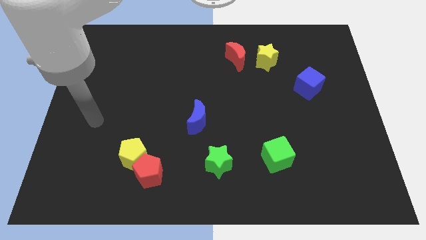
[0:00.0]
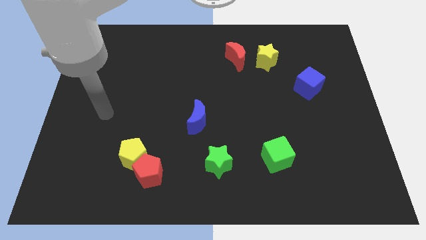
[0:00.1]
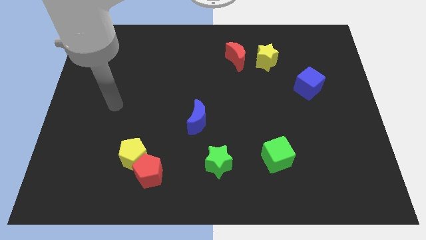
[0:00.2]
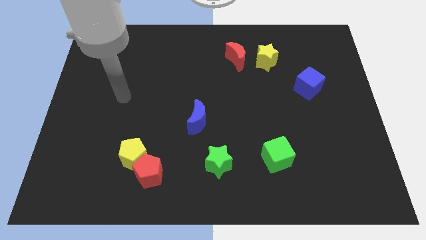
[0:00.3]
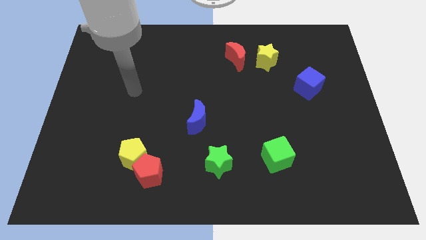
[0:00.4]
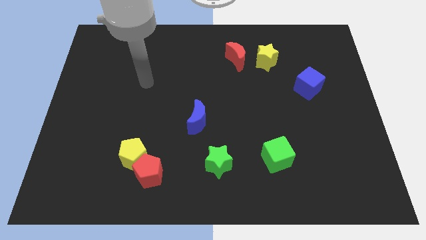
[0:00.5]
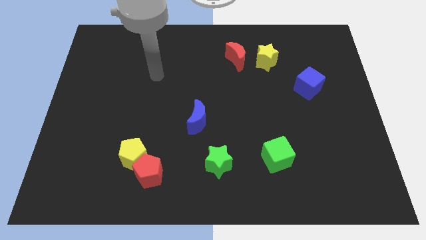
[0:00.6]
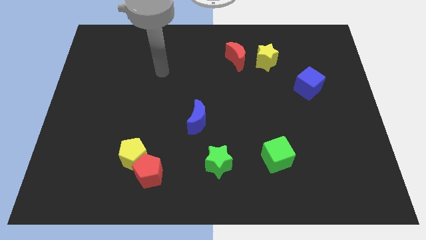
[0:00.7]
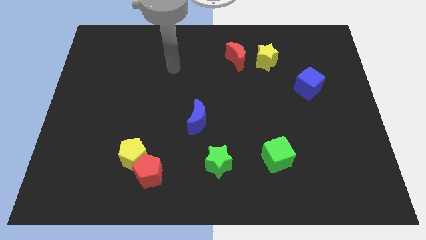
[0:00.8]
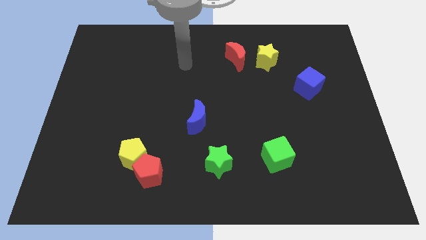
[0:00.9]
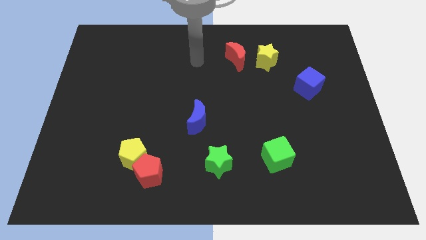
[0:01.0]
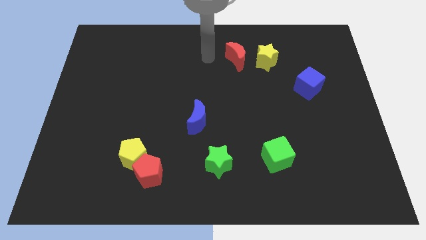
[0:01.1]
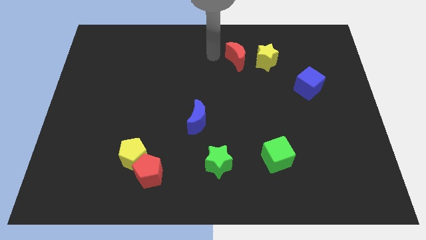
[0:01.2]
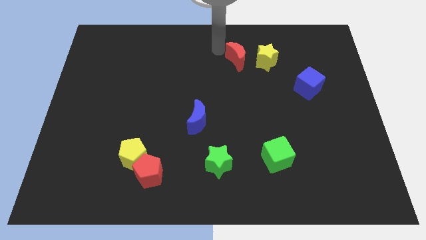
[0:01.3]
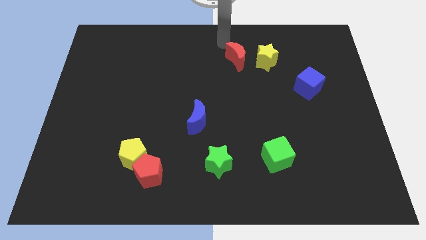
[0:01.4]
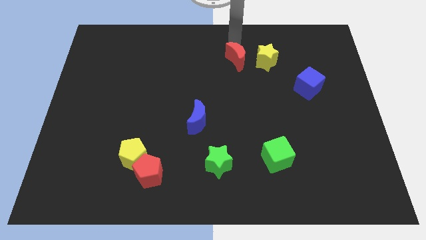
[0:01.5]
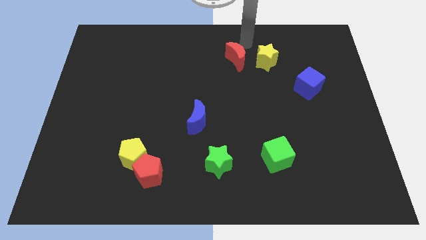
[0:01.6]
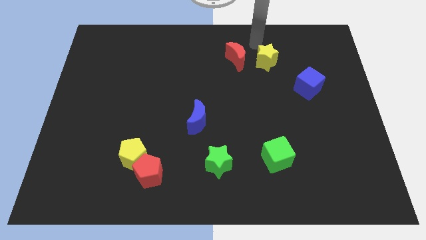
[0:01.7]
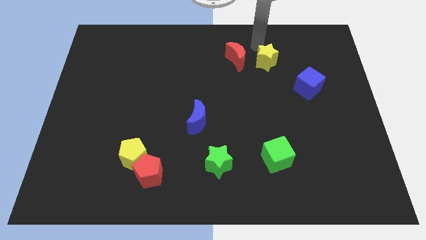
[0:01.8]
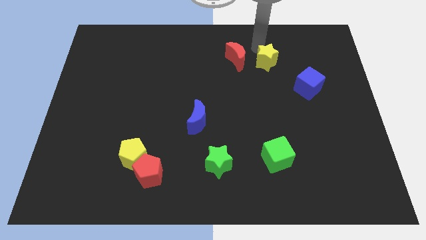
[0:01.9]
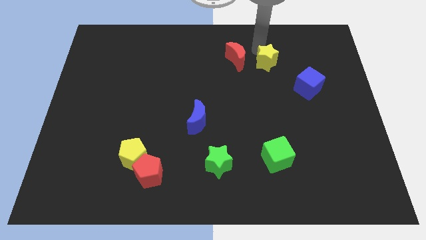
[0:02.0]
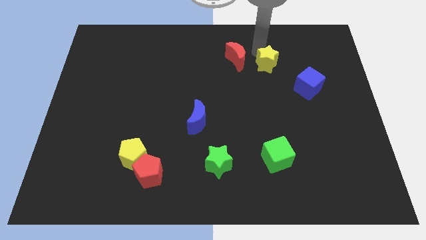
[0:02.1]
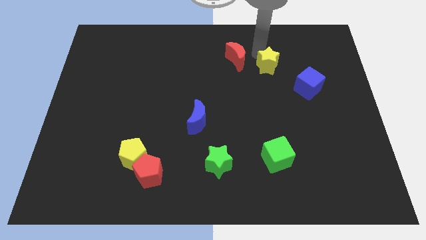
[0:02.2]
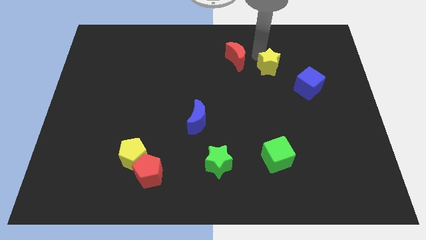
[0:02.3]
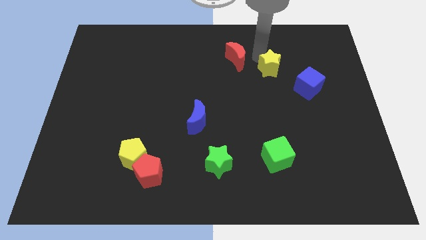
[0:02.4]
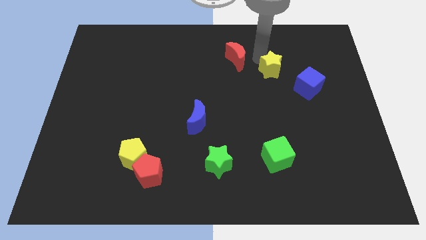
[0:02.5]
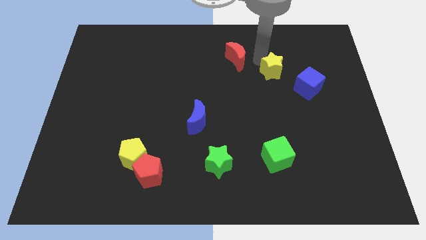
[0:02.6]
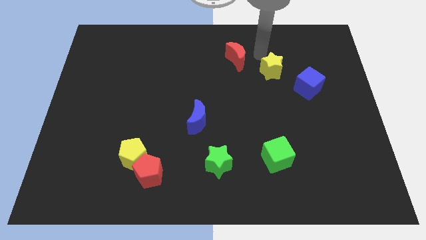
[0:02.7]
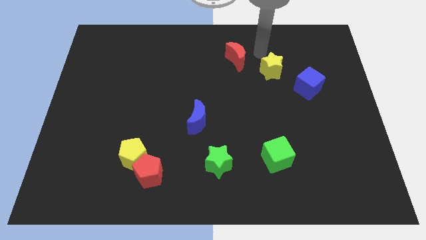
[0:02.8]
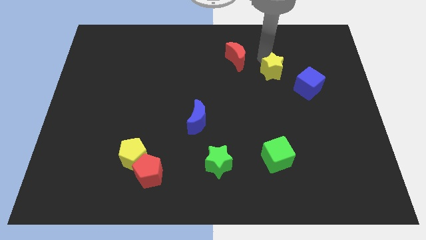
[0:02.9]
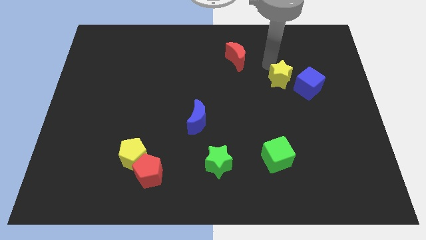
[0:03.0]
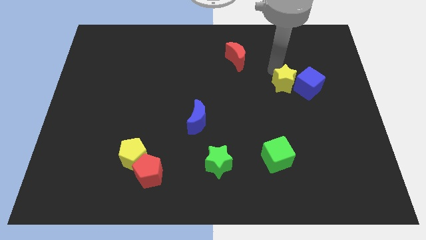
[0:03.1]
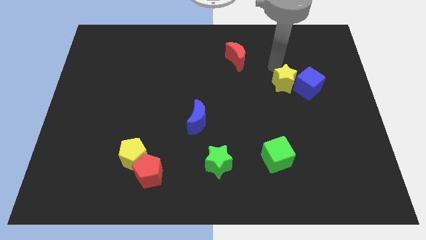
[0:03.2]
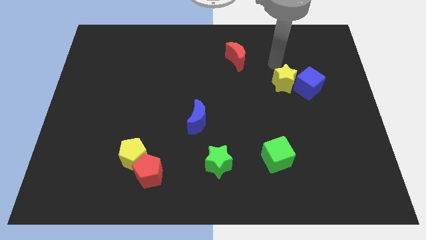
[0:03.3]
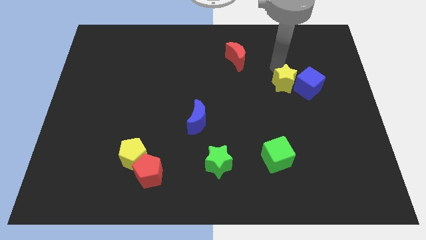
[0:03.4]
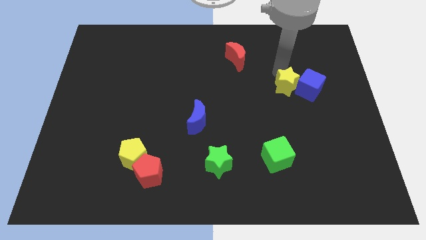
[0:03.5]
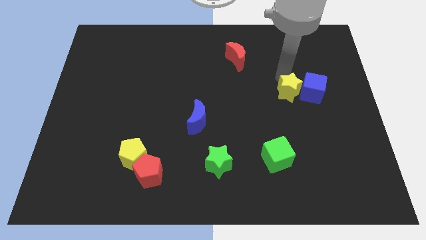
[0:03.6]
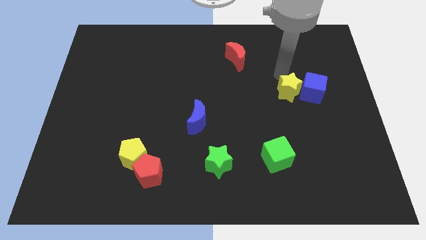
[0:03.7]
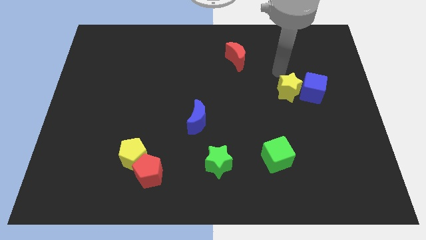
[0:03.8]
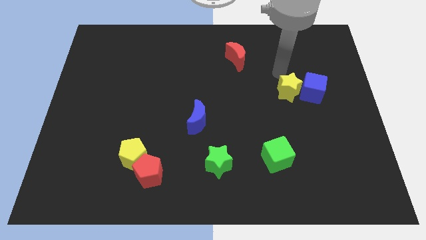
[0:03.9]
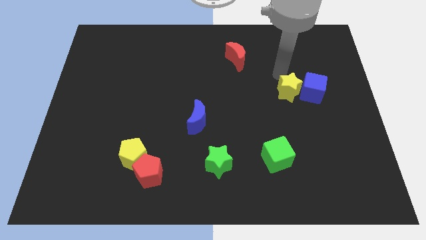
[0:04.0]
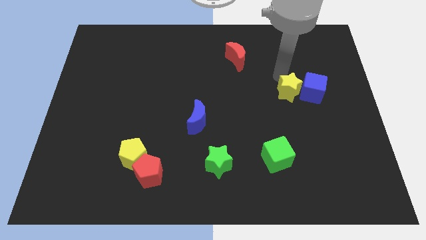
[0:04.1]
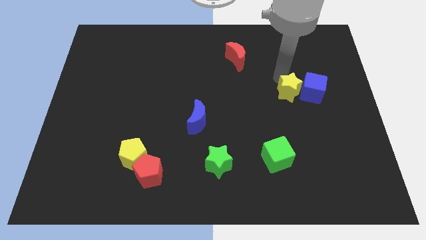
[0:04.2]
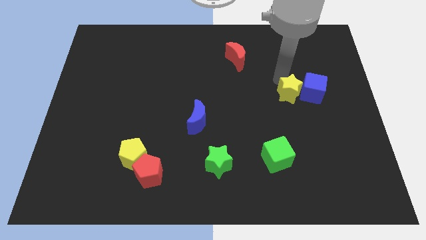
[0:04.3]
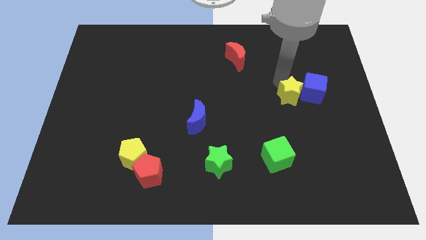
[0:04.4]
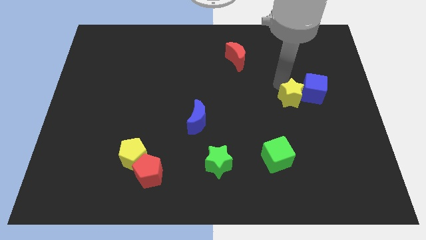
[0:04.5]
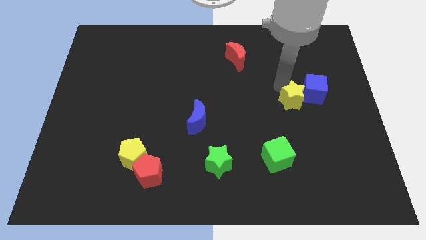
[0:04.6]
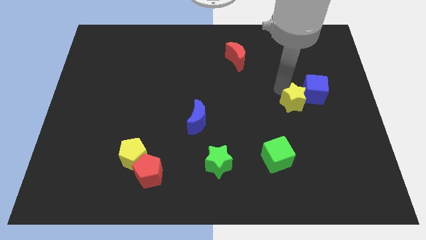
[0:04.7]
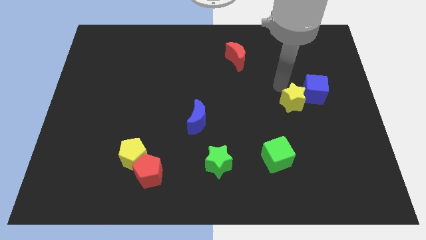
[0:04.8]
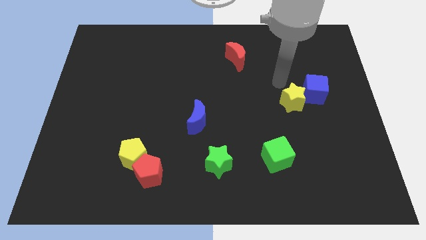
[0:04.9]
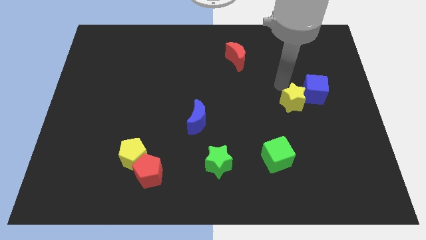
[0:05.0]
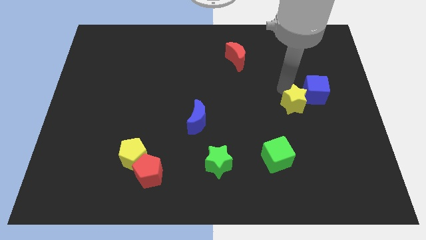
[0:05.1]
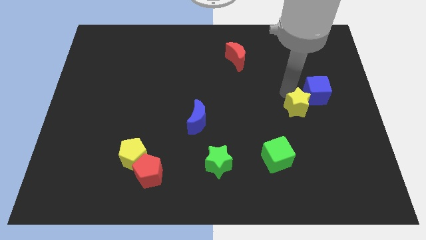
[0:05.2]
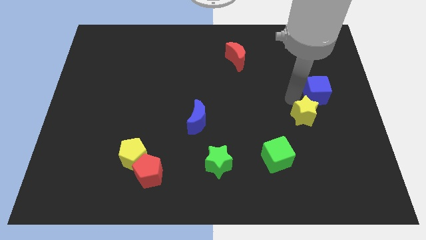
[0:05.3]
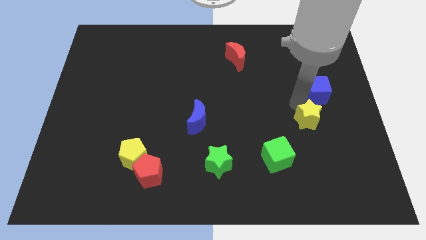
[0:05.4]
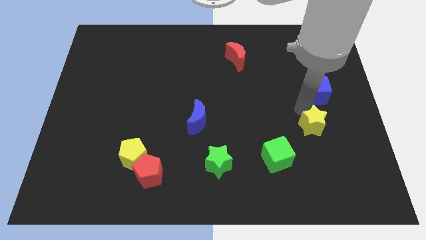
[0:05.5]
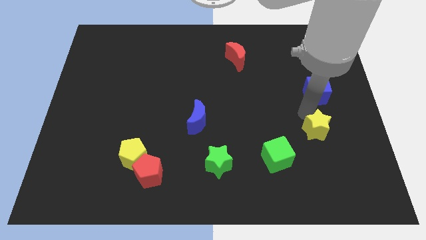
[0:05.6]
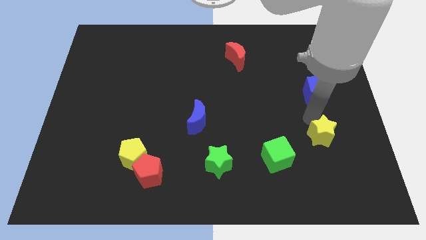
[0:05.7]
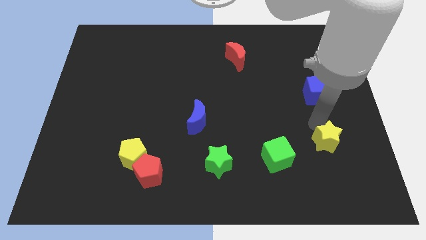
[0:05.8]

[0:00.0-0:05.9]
move the yellow star to the right side of the green cube

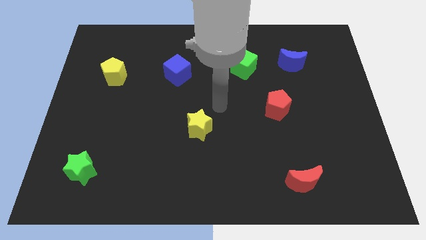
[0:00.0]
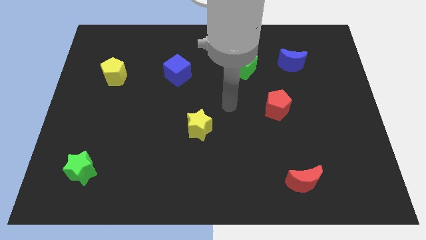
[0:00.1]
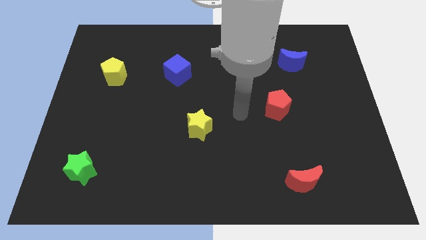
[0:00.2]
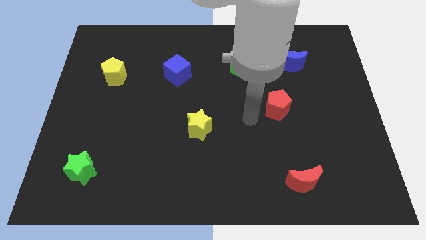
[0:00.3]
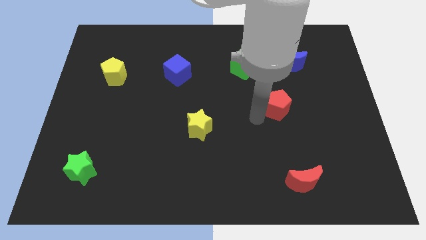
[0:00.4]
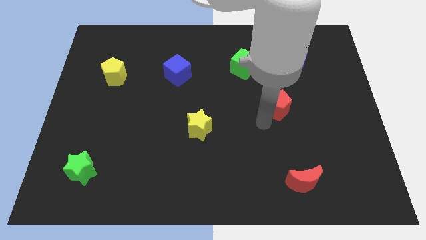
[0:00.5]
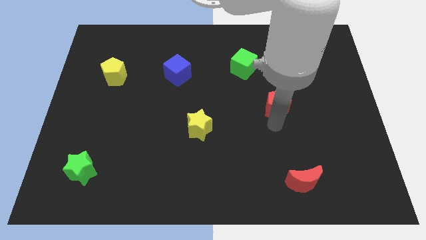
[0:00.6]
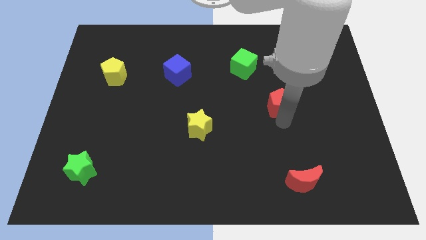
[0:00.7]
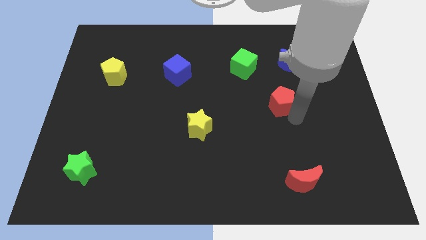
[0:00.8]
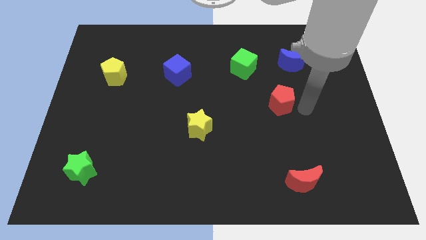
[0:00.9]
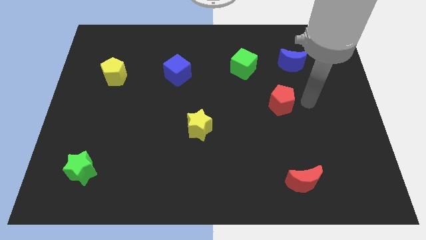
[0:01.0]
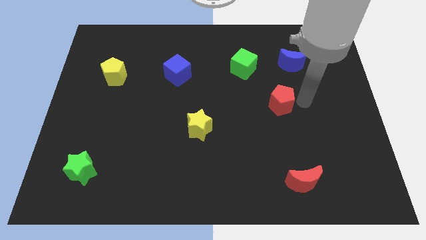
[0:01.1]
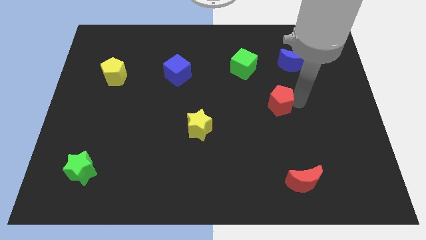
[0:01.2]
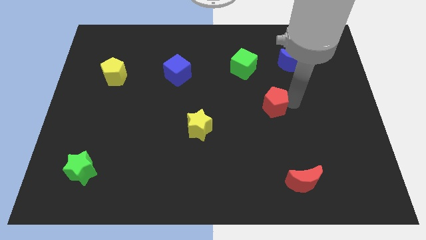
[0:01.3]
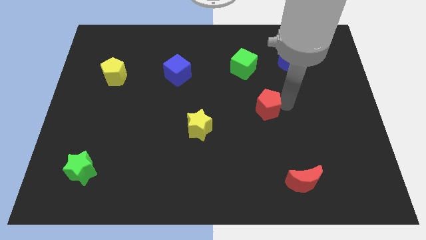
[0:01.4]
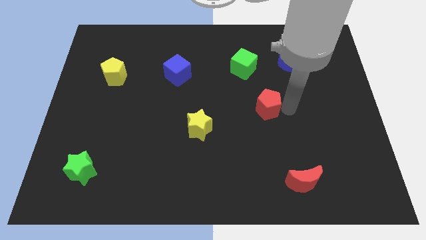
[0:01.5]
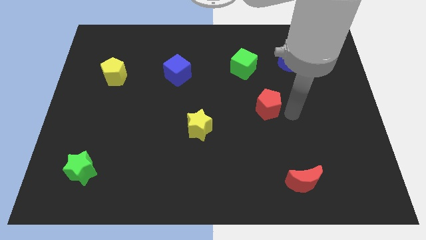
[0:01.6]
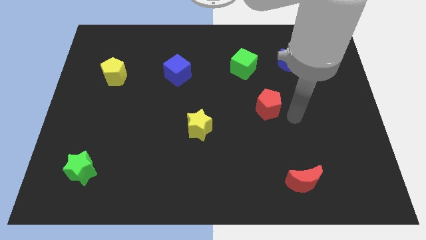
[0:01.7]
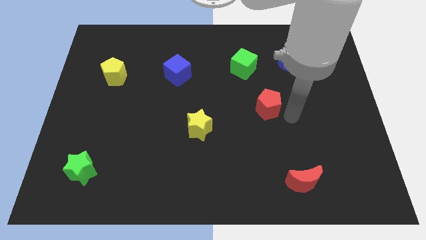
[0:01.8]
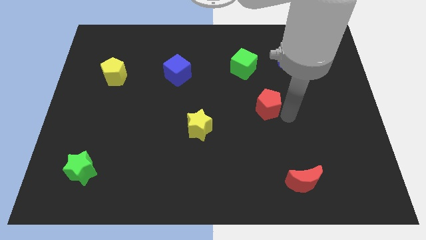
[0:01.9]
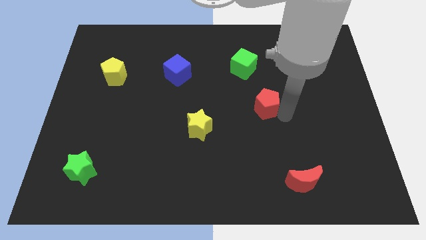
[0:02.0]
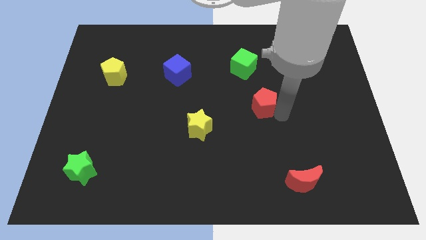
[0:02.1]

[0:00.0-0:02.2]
move the red pentagon to the bottom of the green cube

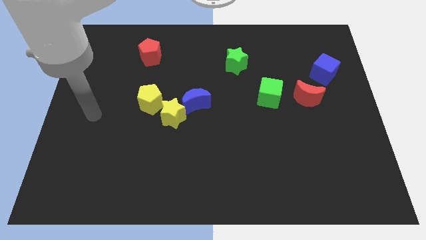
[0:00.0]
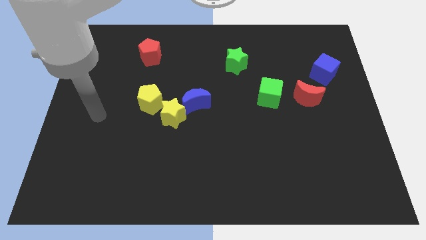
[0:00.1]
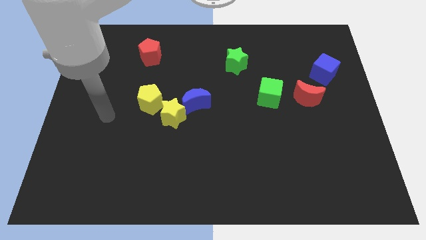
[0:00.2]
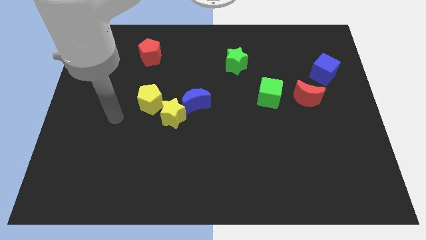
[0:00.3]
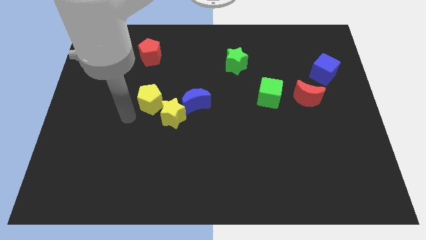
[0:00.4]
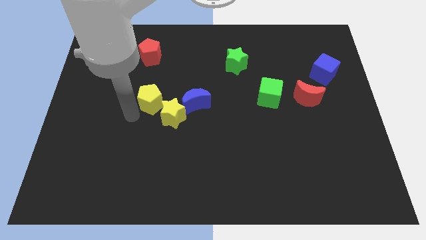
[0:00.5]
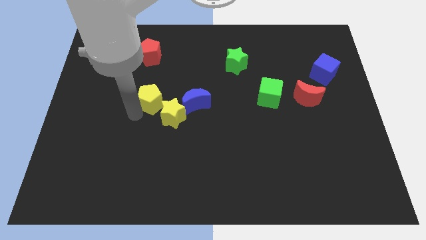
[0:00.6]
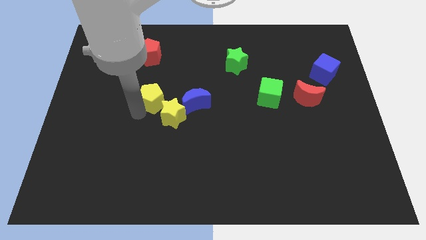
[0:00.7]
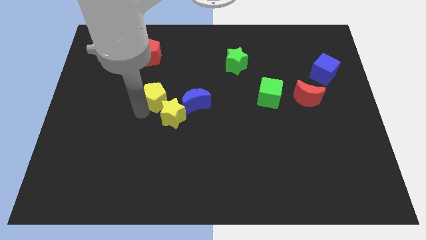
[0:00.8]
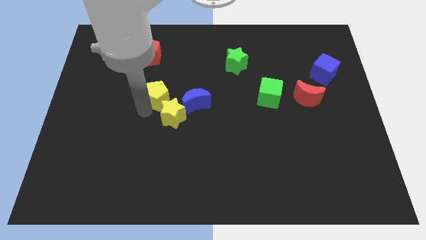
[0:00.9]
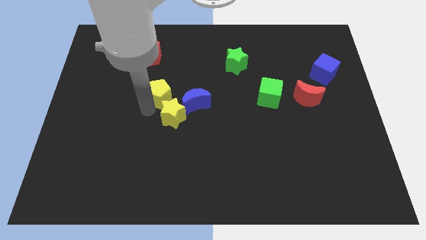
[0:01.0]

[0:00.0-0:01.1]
push the yellow pentagon to the top left side of the blue moon

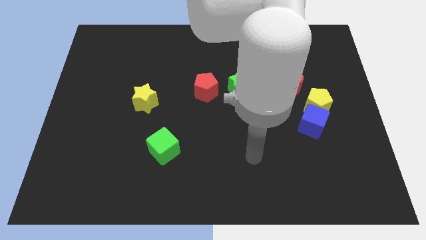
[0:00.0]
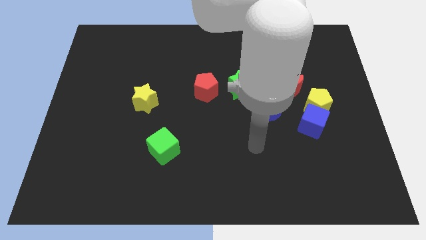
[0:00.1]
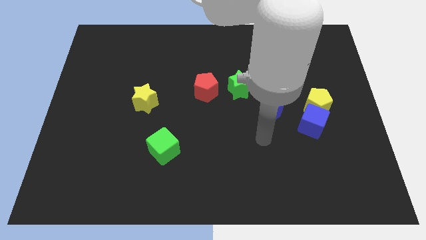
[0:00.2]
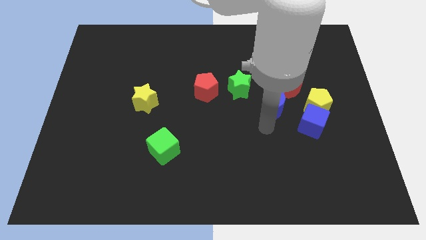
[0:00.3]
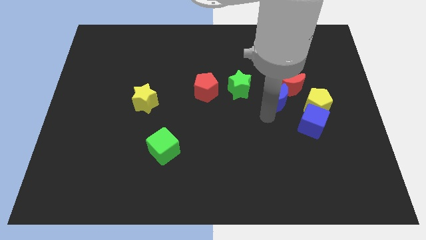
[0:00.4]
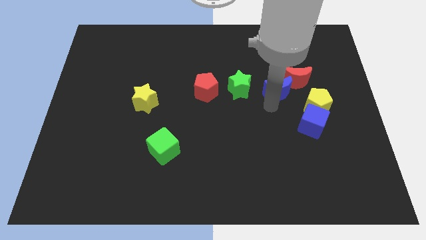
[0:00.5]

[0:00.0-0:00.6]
put the red moon to the top of the yellow pentagon
